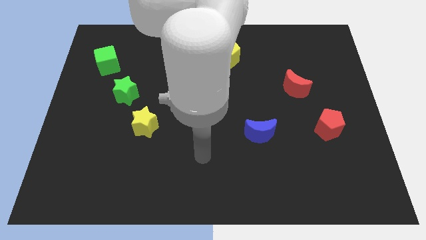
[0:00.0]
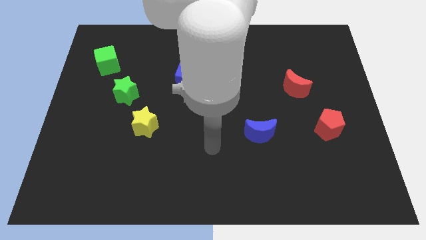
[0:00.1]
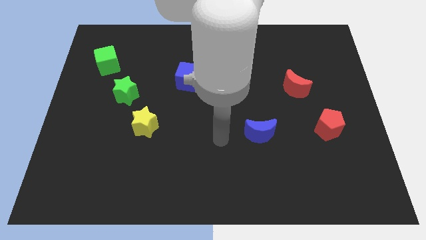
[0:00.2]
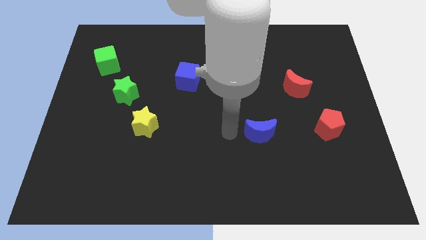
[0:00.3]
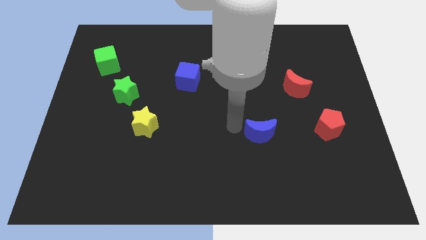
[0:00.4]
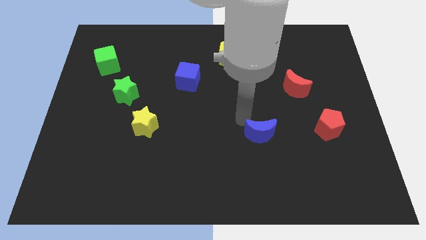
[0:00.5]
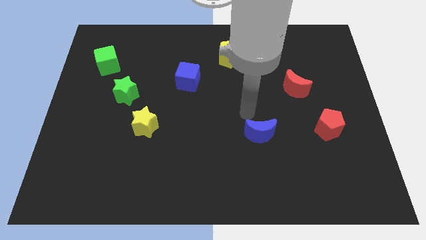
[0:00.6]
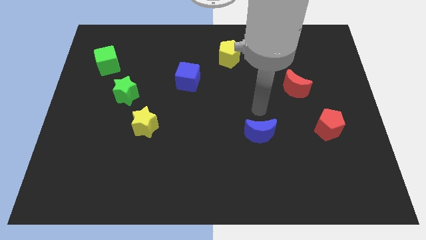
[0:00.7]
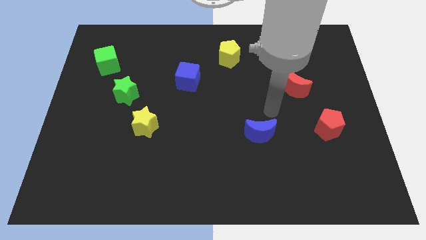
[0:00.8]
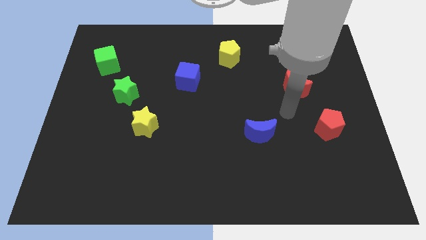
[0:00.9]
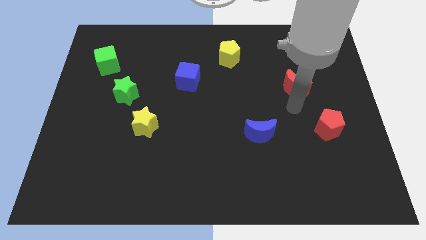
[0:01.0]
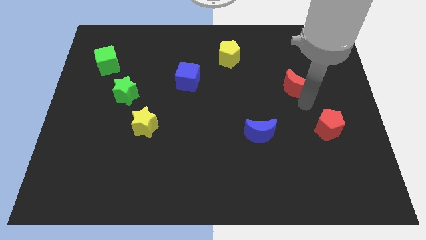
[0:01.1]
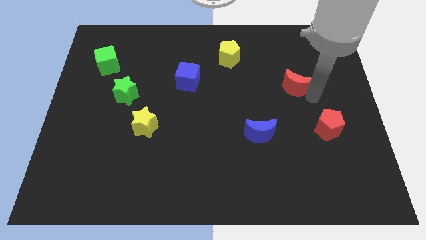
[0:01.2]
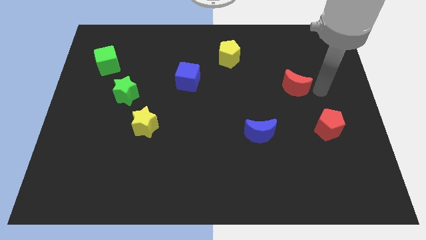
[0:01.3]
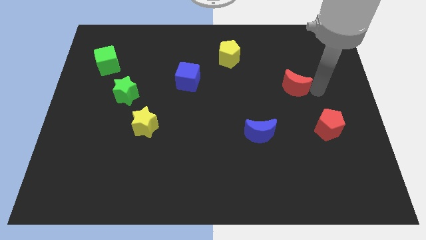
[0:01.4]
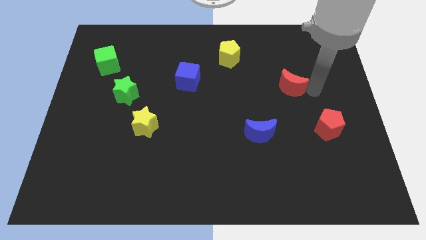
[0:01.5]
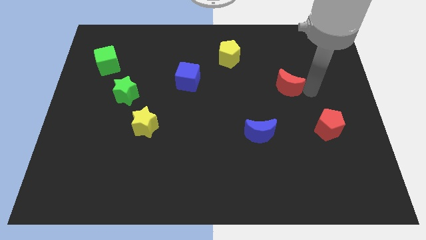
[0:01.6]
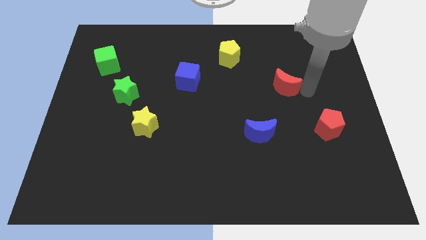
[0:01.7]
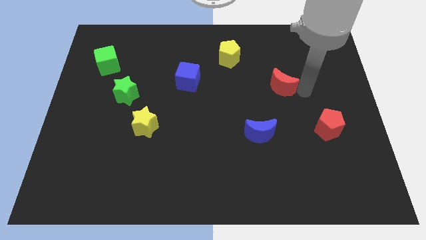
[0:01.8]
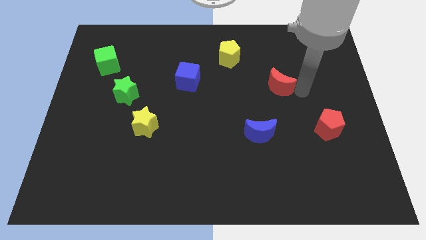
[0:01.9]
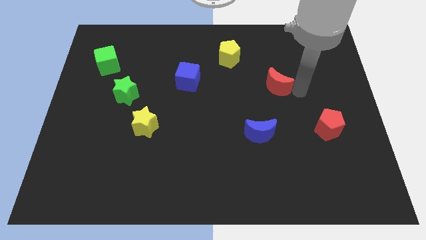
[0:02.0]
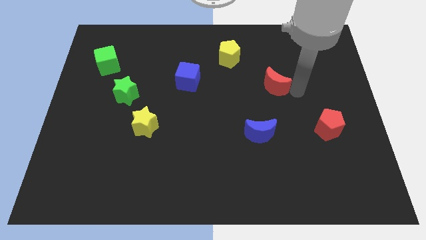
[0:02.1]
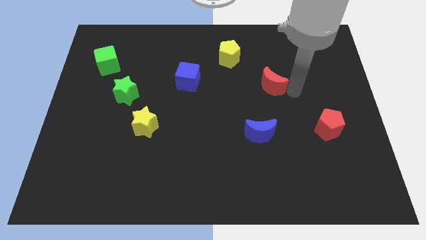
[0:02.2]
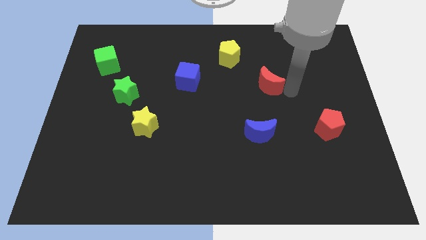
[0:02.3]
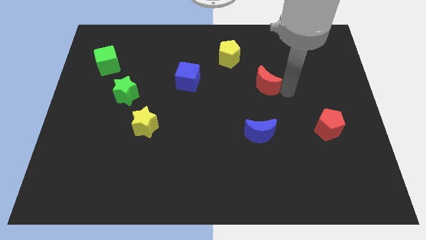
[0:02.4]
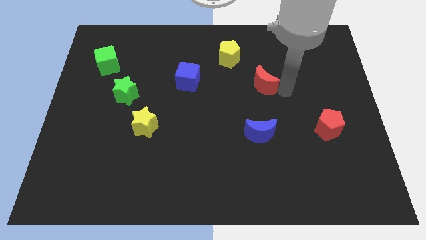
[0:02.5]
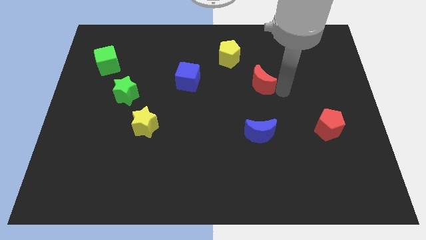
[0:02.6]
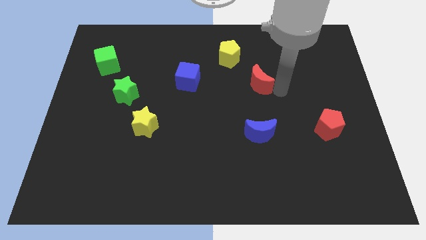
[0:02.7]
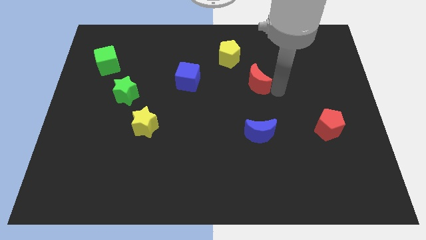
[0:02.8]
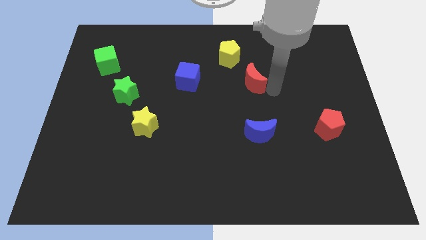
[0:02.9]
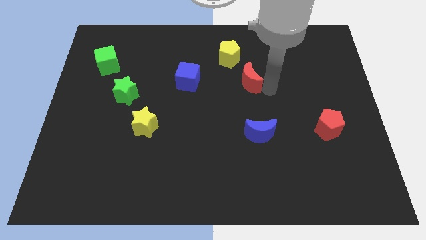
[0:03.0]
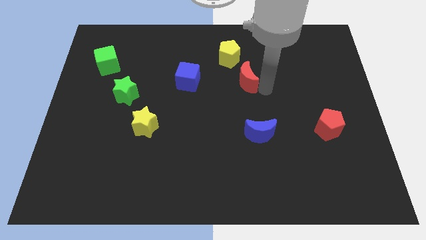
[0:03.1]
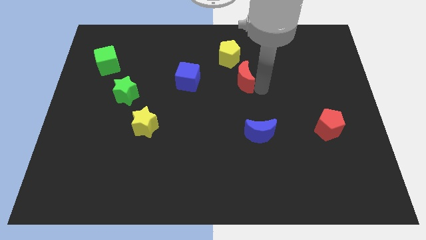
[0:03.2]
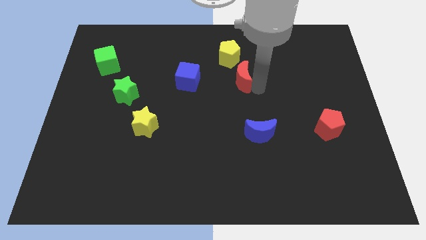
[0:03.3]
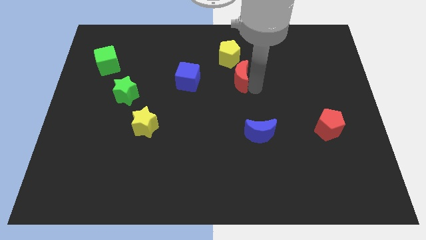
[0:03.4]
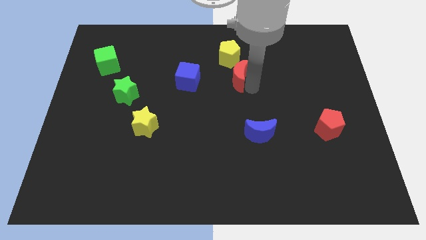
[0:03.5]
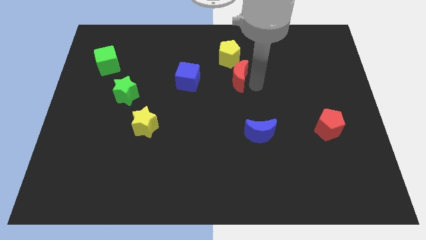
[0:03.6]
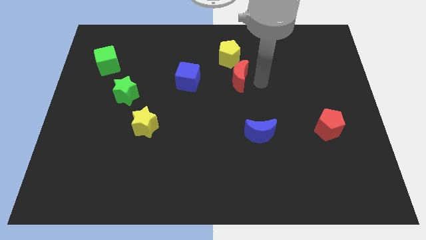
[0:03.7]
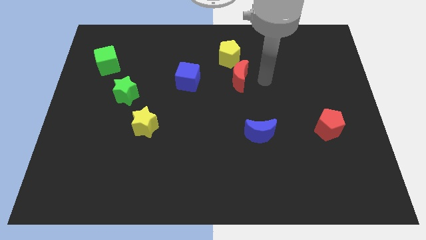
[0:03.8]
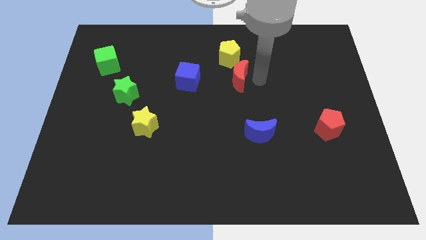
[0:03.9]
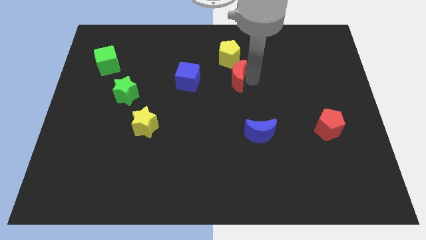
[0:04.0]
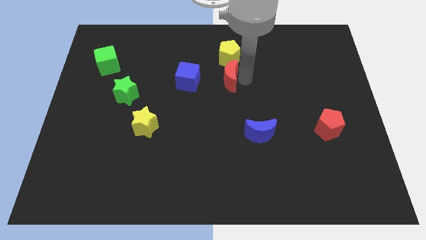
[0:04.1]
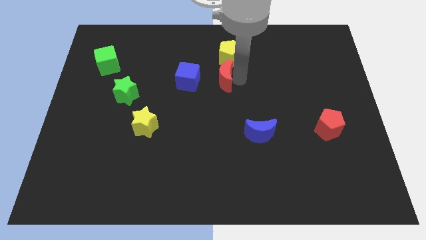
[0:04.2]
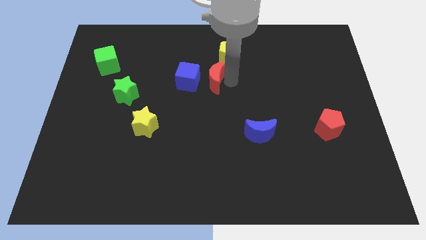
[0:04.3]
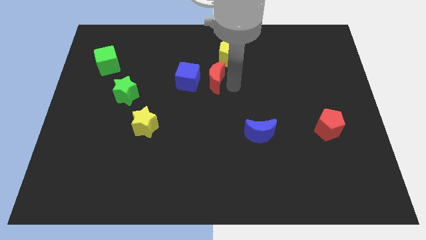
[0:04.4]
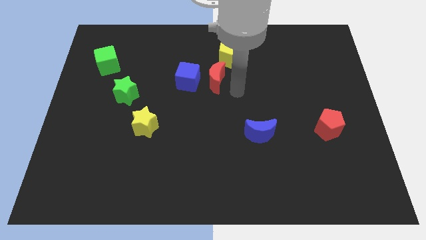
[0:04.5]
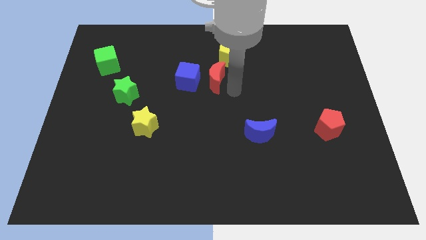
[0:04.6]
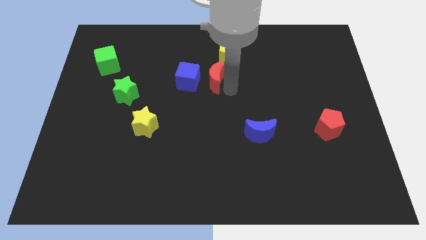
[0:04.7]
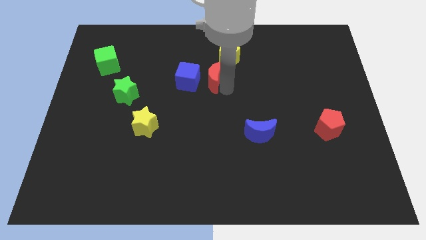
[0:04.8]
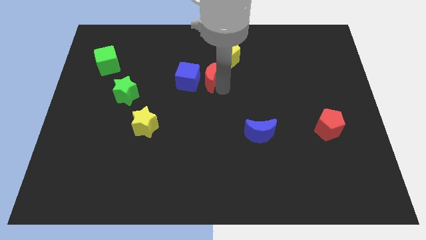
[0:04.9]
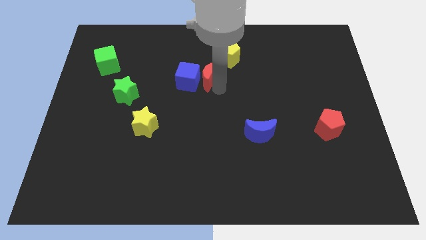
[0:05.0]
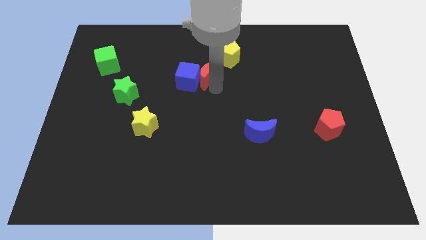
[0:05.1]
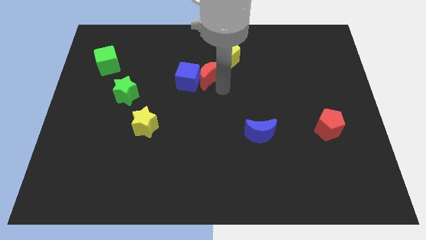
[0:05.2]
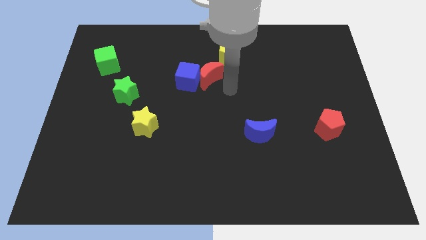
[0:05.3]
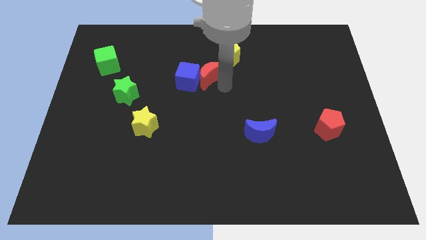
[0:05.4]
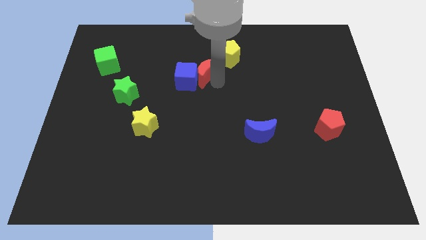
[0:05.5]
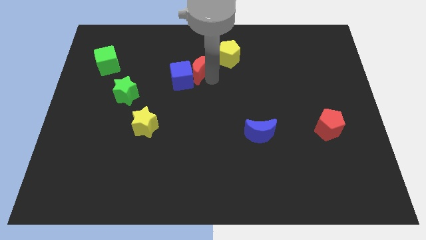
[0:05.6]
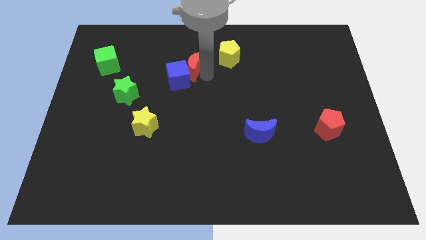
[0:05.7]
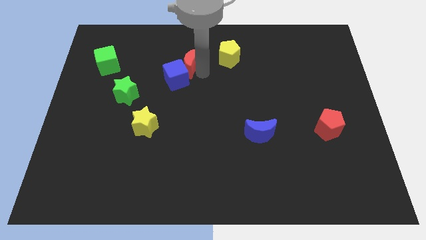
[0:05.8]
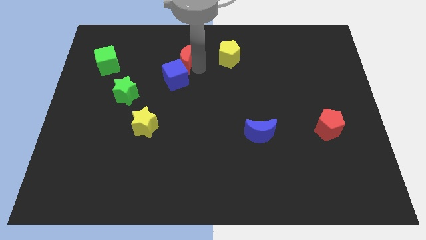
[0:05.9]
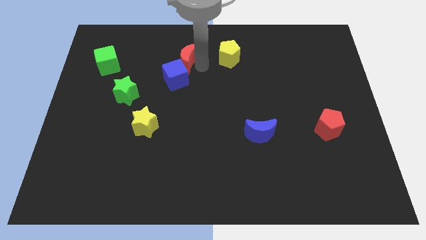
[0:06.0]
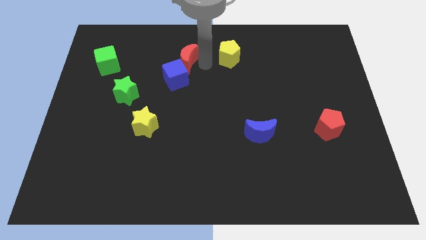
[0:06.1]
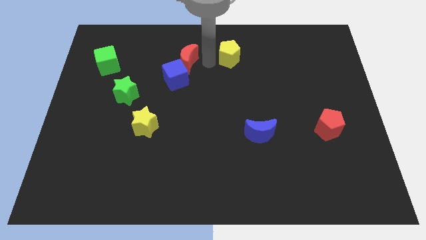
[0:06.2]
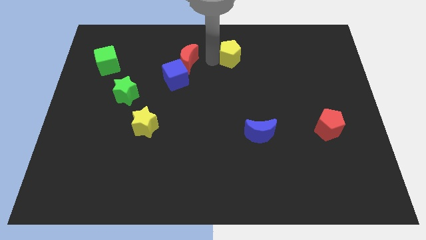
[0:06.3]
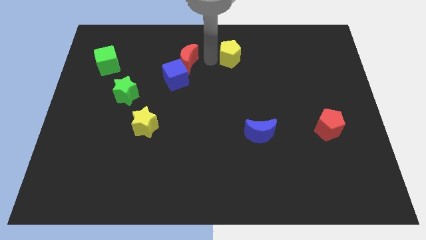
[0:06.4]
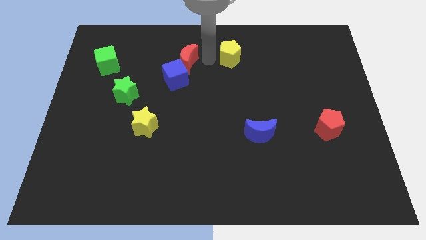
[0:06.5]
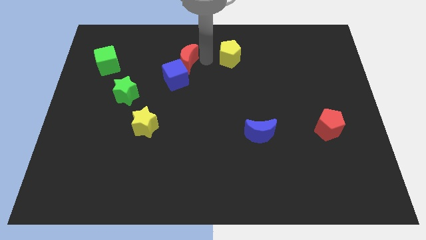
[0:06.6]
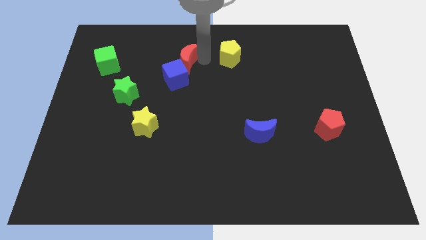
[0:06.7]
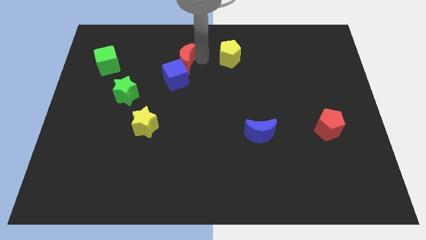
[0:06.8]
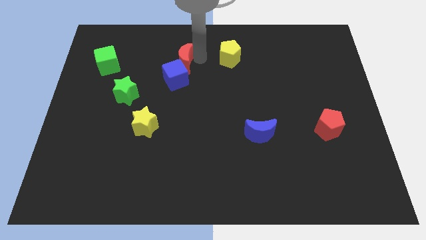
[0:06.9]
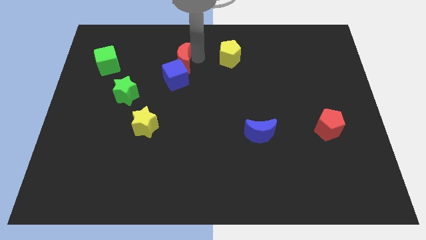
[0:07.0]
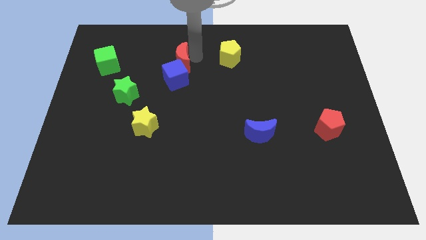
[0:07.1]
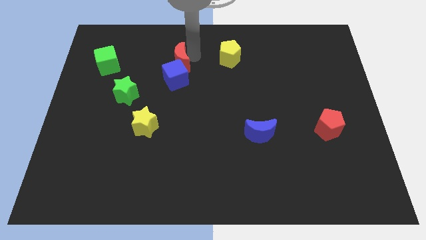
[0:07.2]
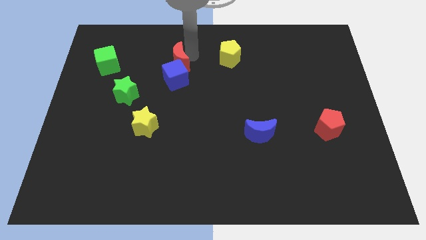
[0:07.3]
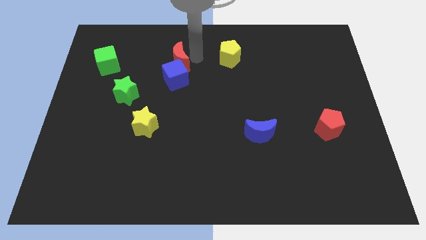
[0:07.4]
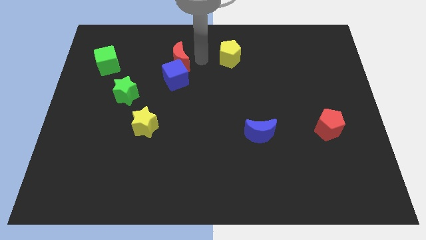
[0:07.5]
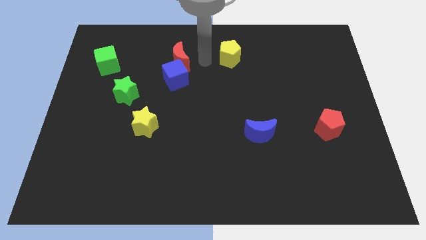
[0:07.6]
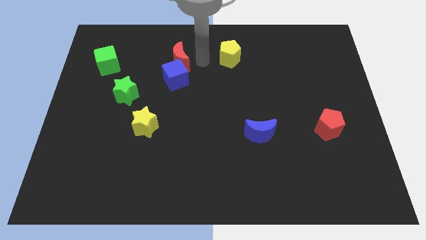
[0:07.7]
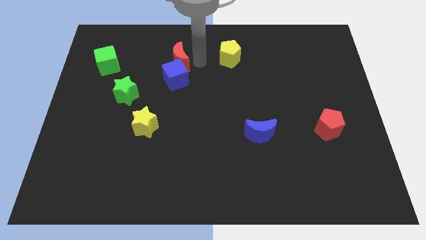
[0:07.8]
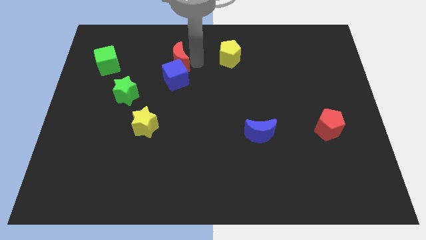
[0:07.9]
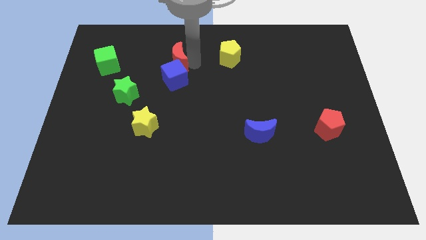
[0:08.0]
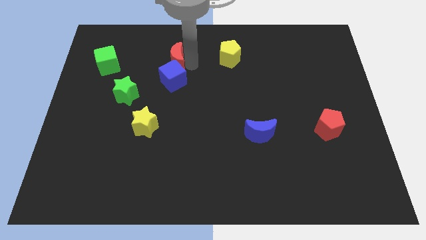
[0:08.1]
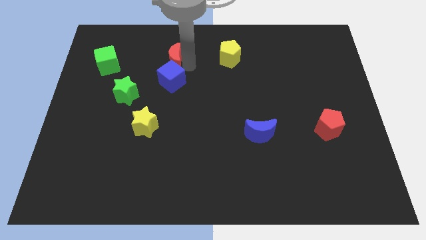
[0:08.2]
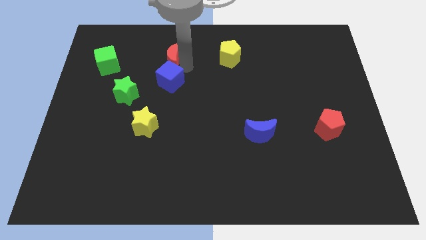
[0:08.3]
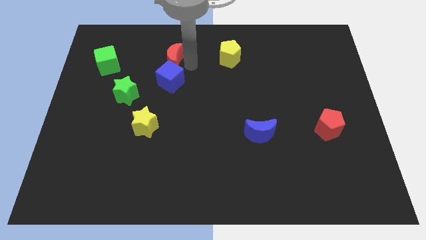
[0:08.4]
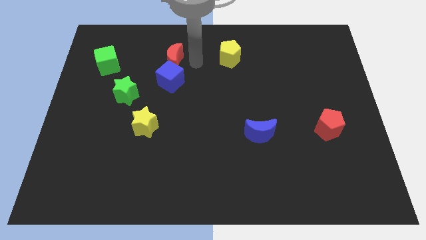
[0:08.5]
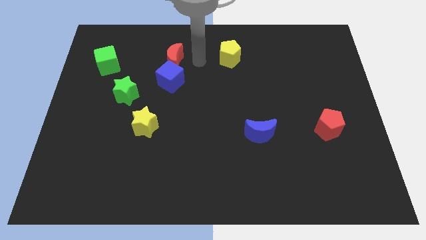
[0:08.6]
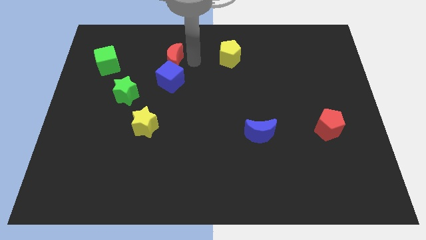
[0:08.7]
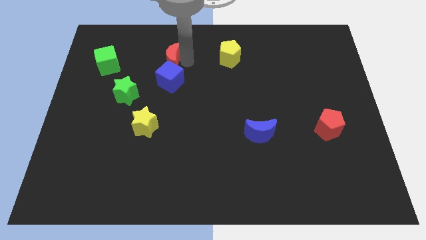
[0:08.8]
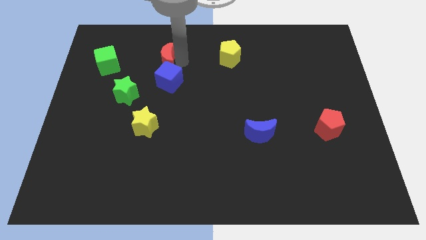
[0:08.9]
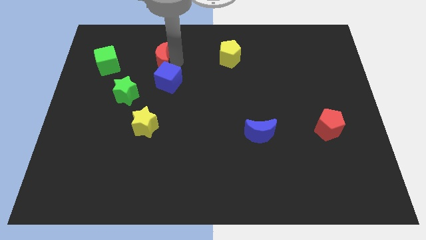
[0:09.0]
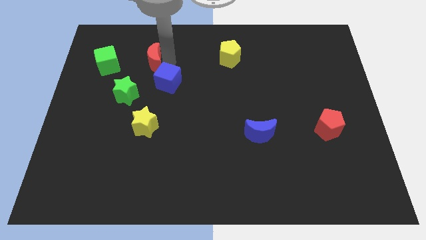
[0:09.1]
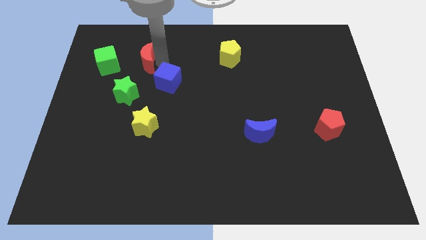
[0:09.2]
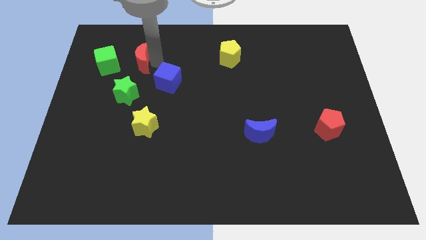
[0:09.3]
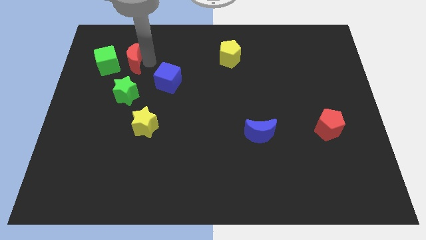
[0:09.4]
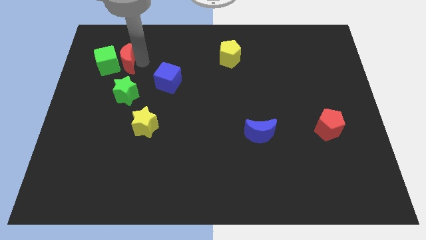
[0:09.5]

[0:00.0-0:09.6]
put the red moon close to the green cube
